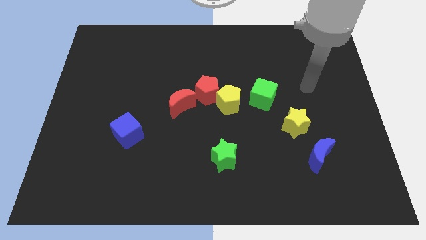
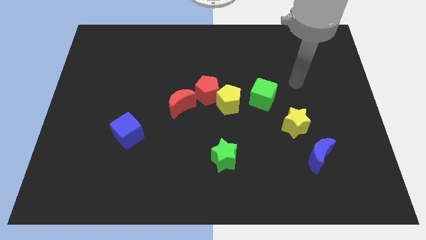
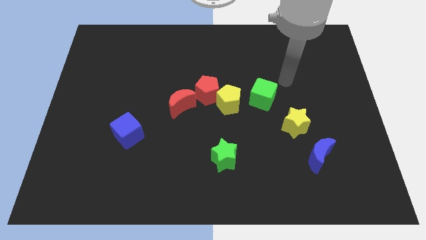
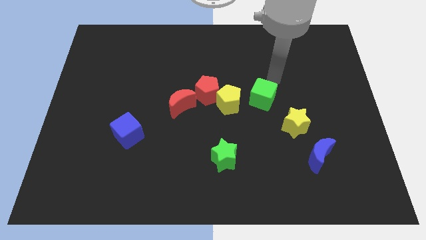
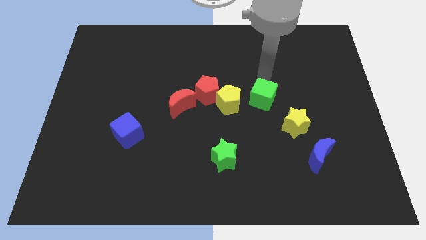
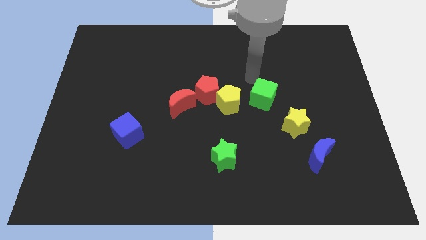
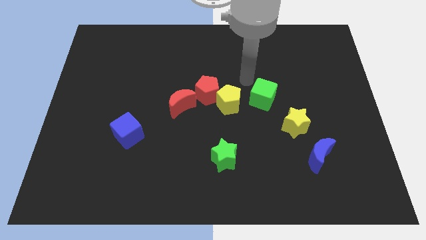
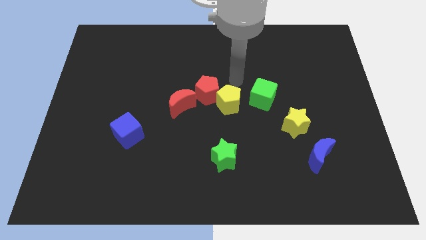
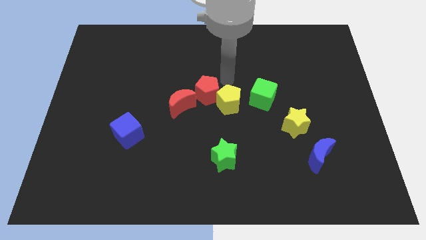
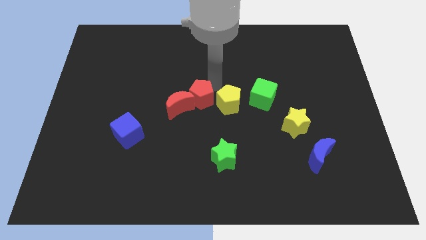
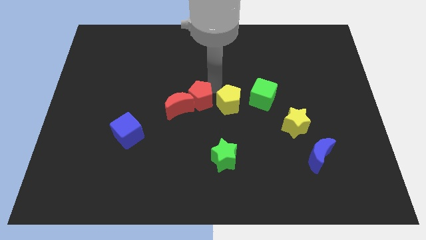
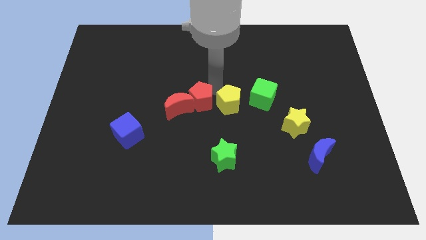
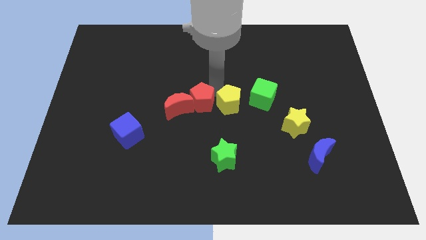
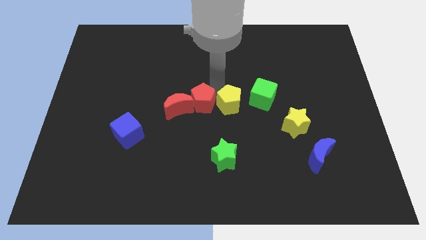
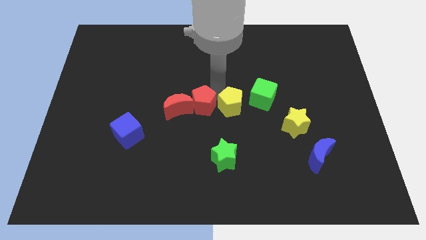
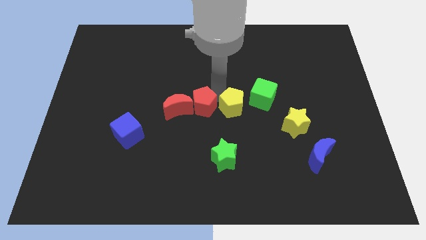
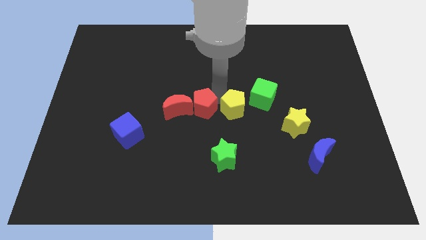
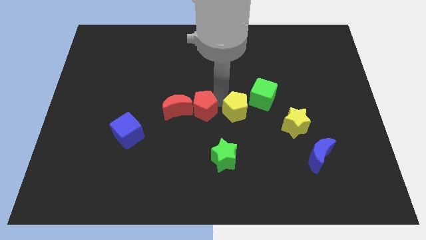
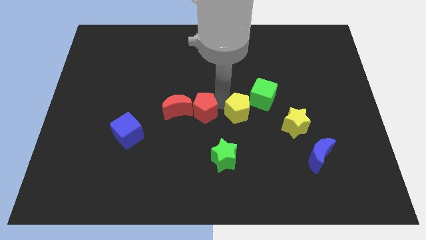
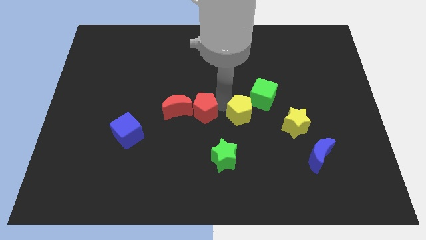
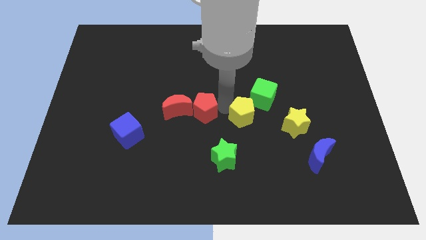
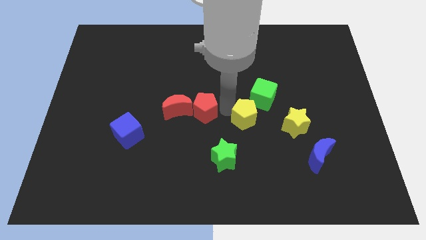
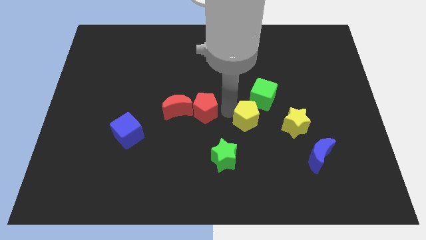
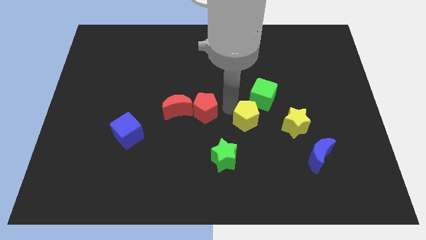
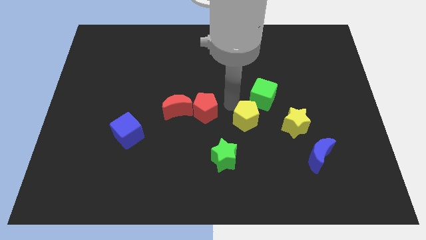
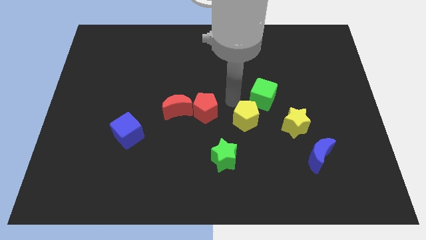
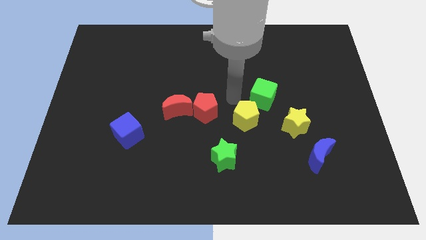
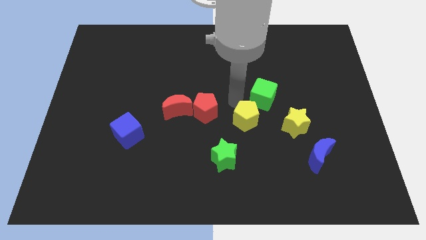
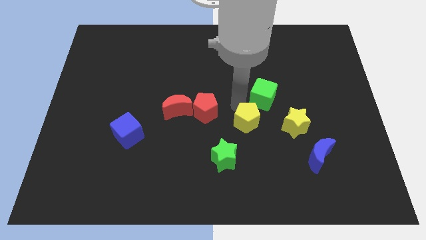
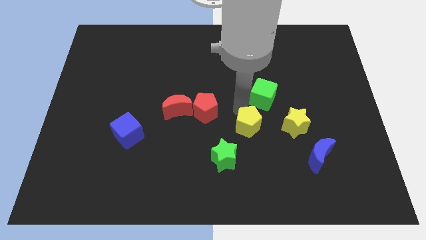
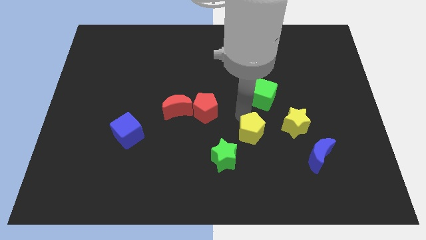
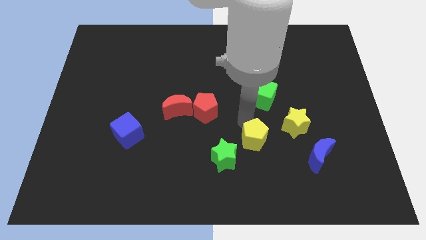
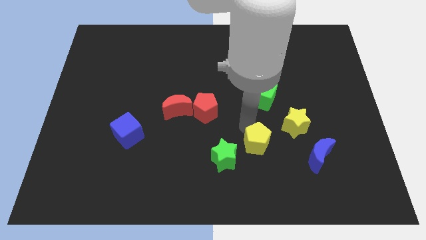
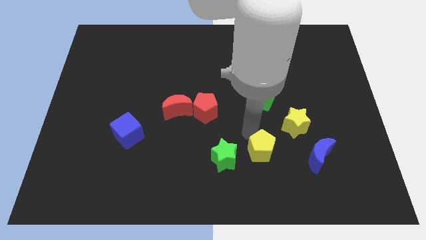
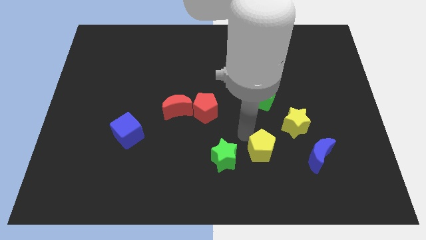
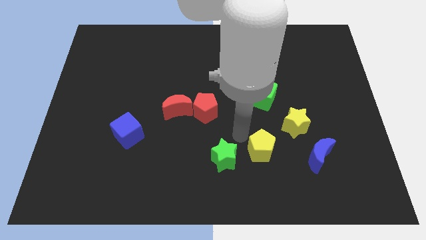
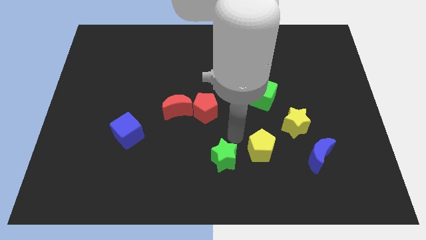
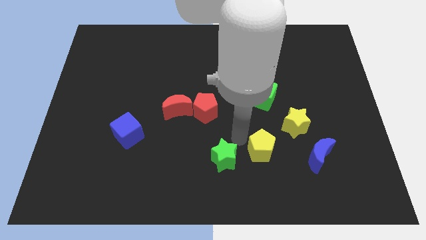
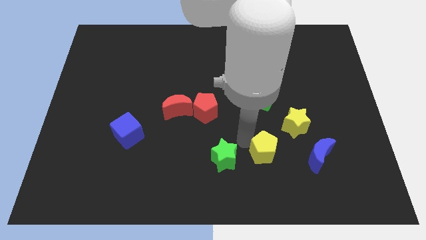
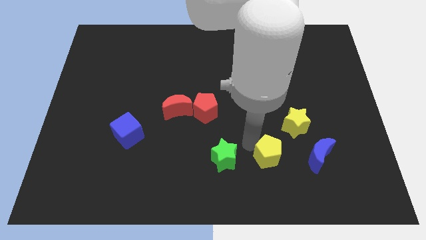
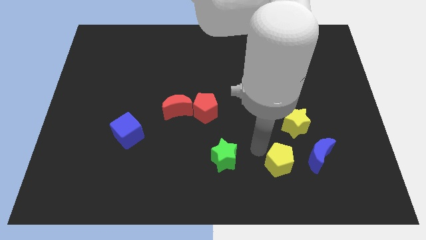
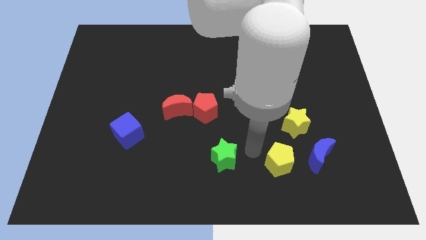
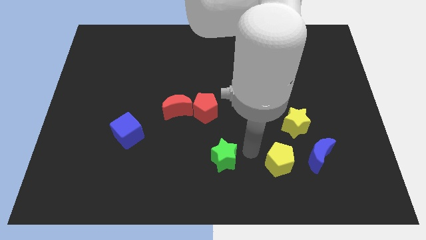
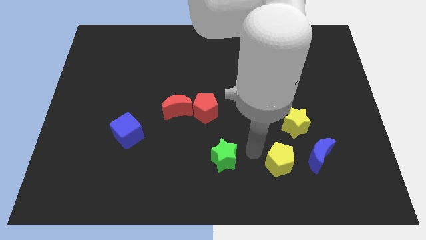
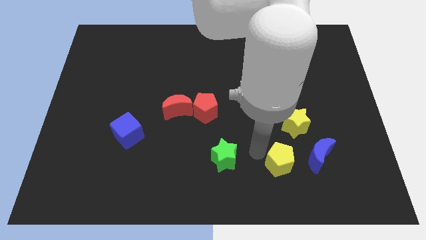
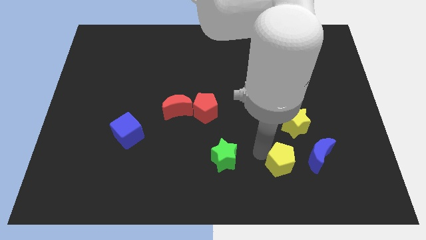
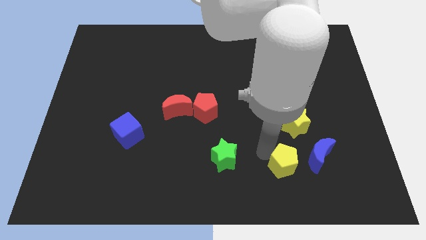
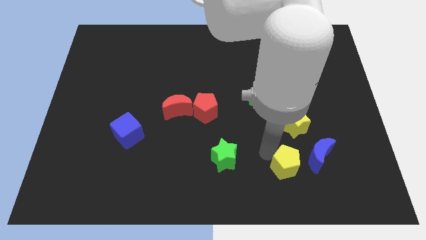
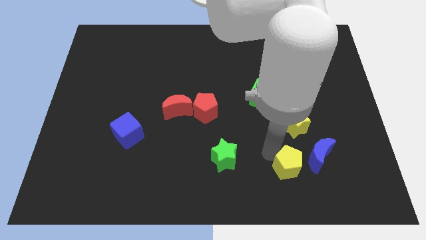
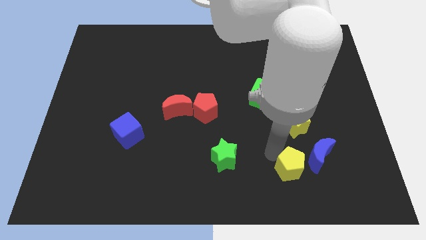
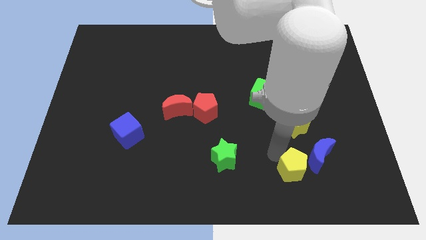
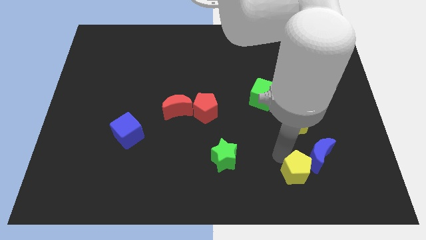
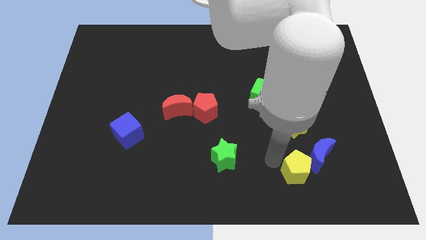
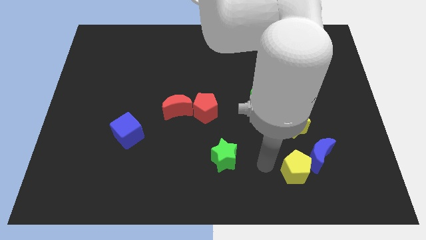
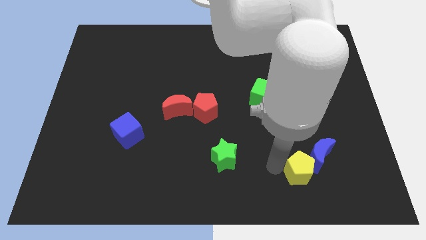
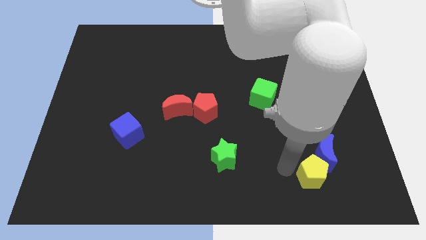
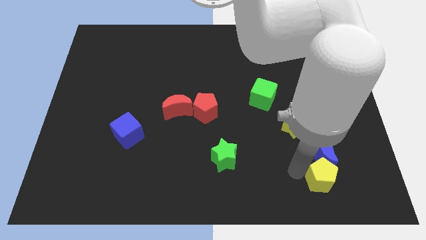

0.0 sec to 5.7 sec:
push the yellow pentagon to the bottom right of the blue moon

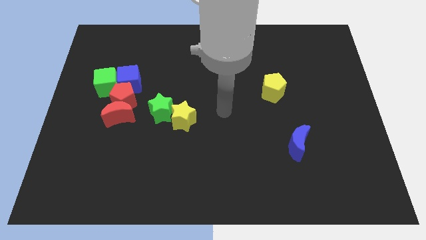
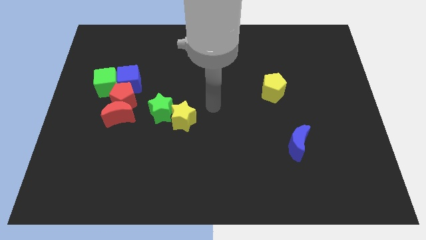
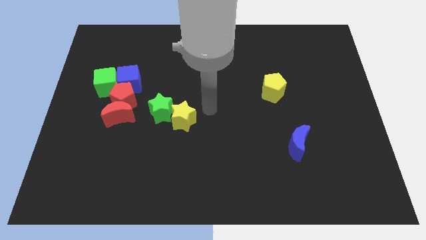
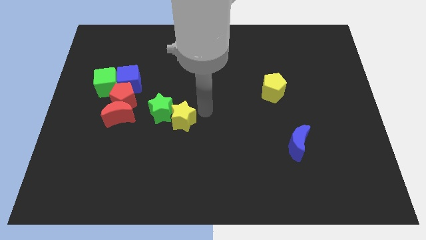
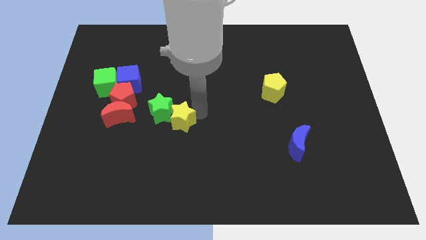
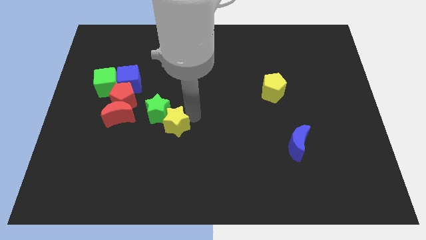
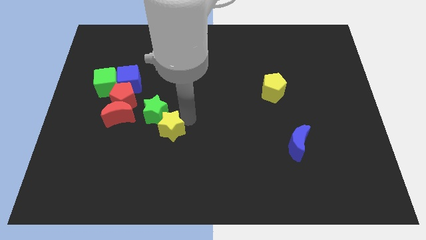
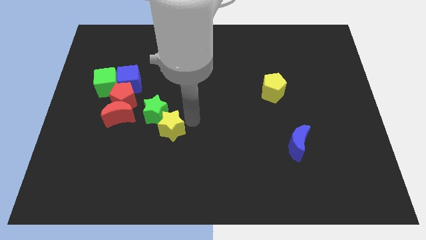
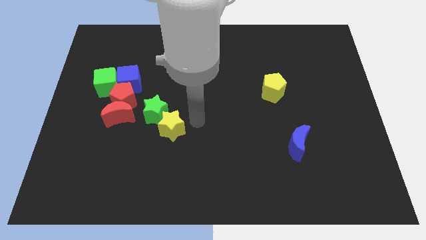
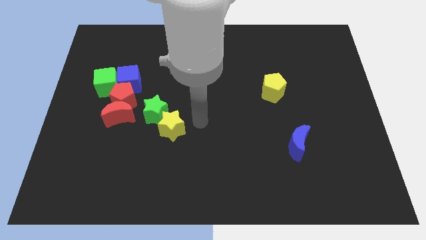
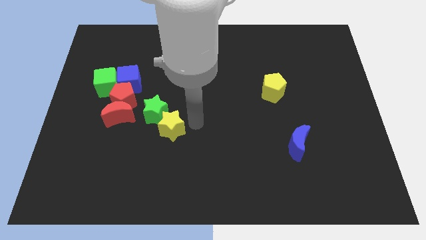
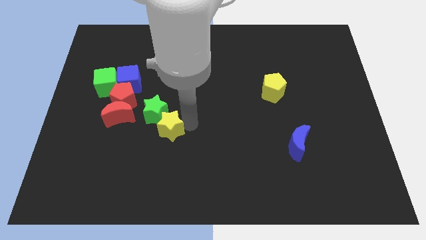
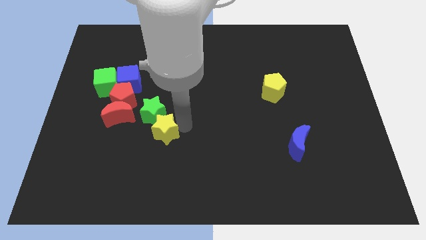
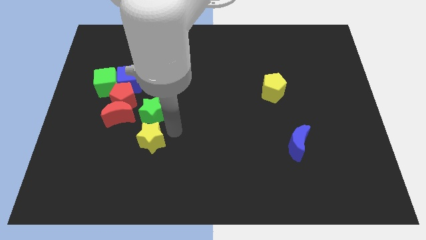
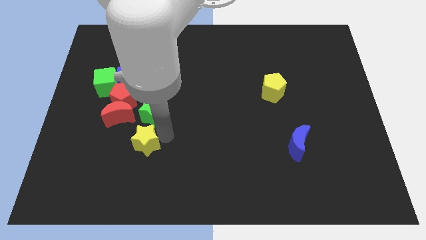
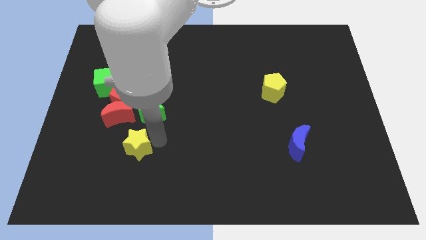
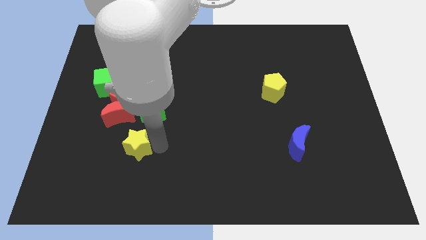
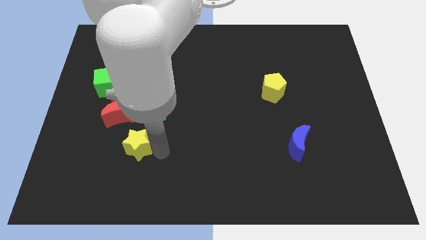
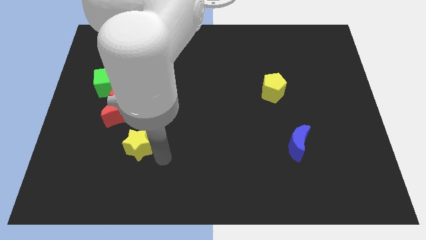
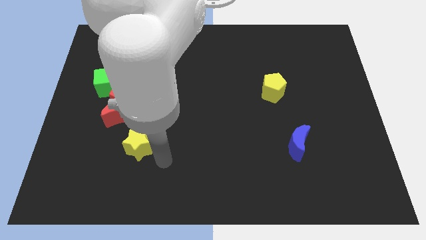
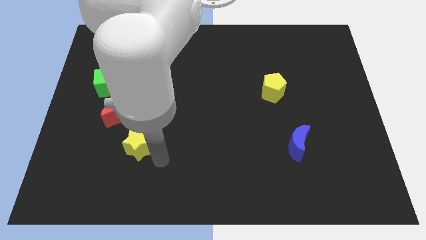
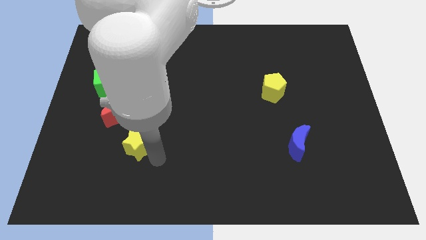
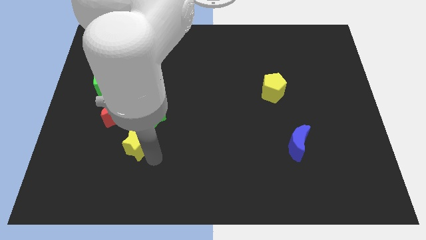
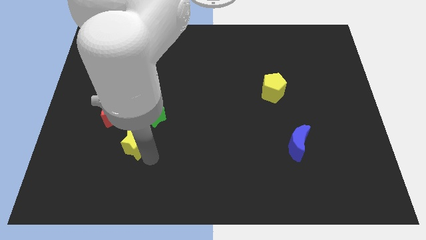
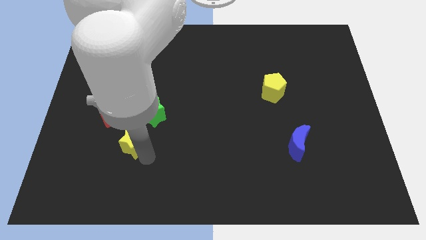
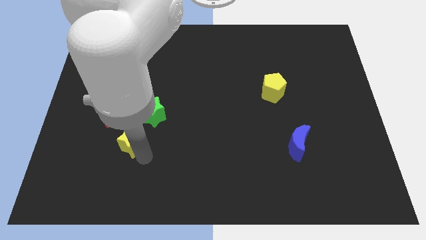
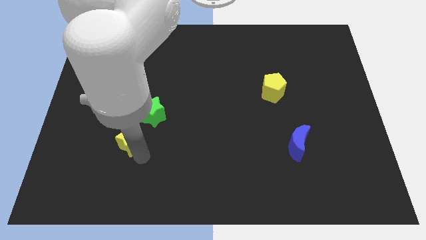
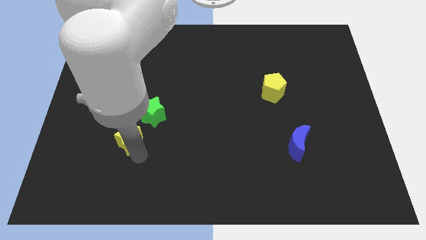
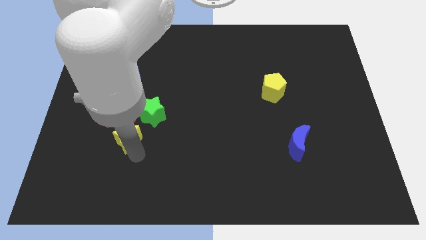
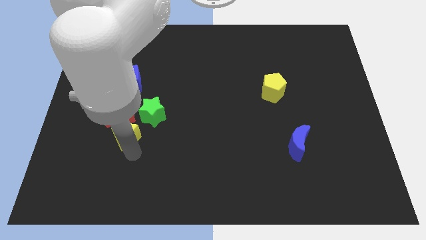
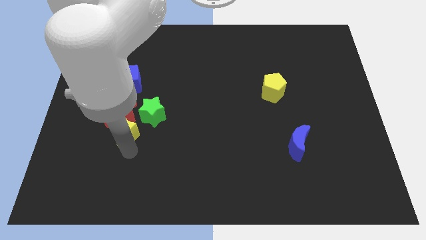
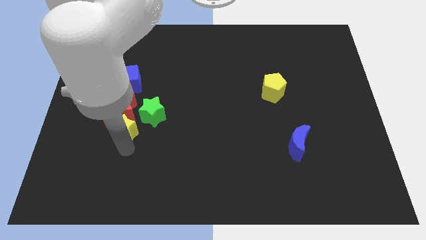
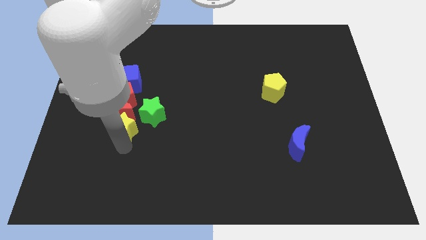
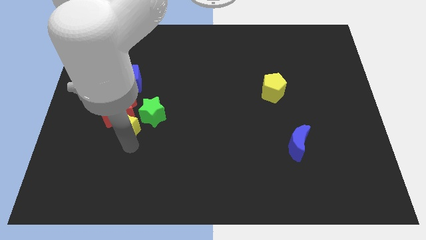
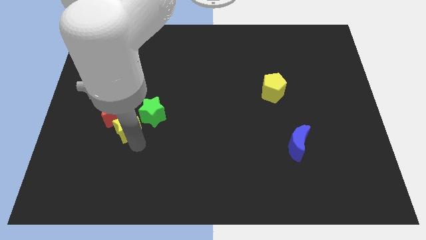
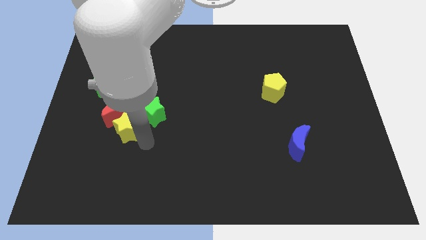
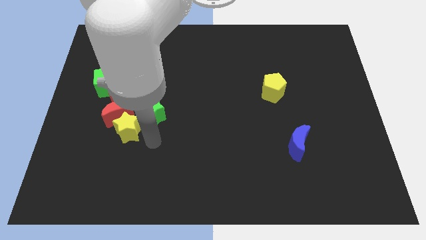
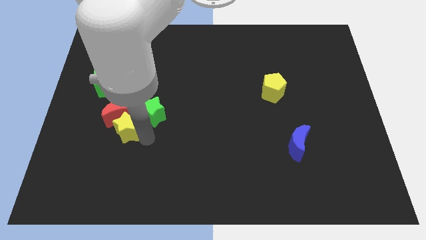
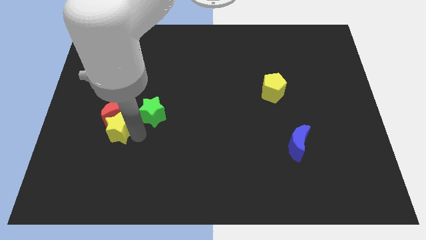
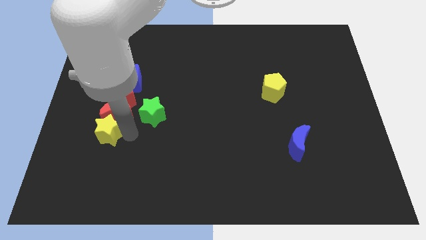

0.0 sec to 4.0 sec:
slide the yellow star below the green cube
